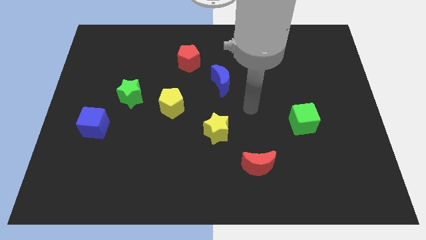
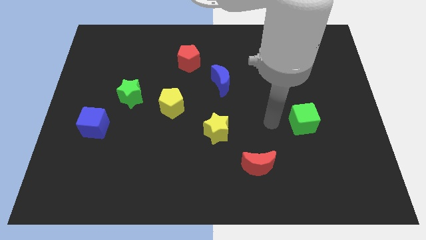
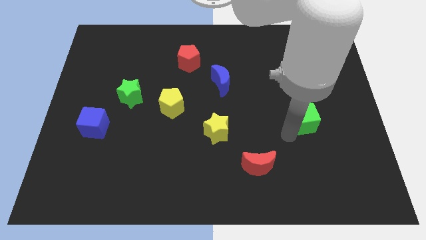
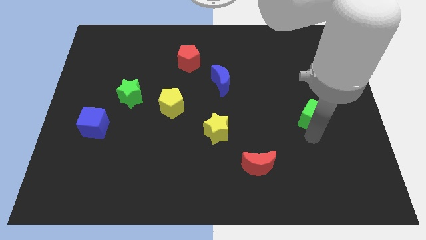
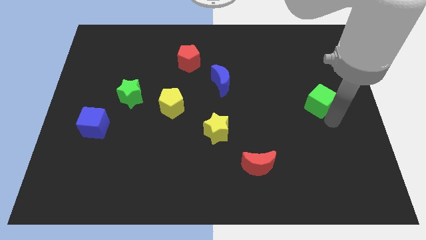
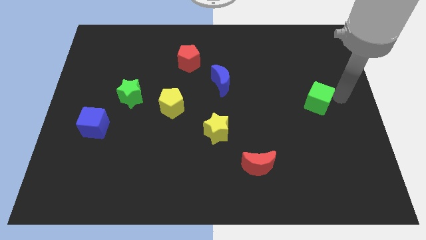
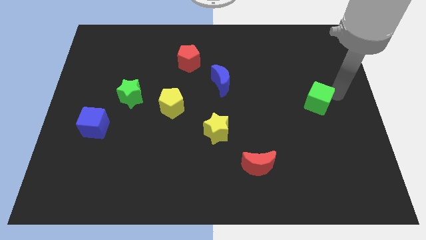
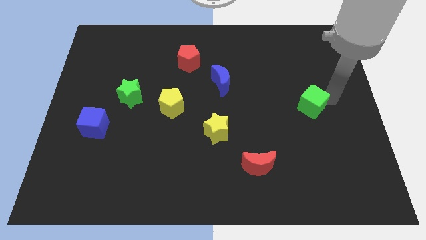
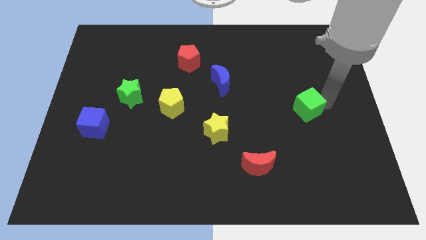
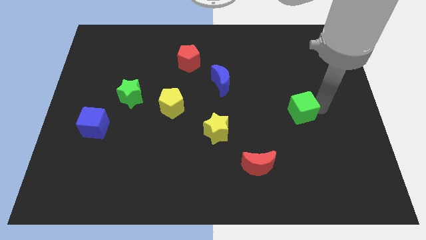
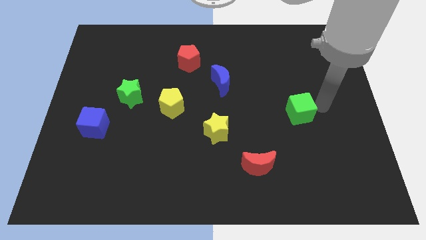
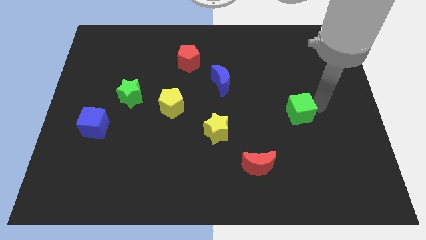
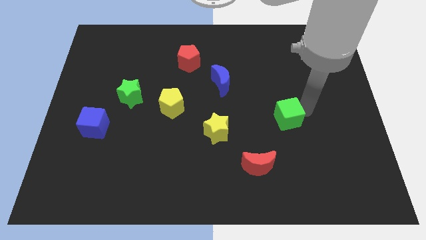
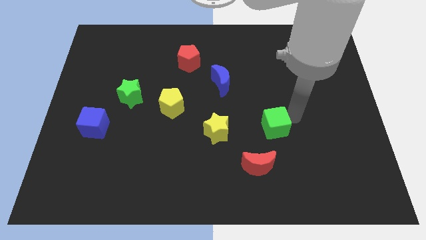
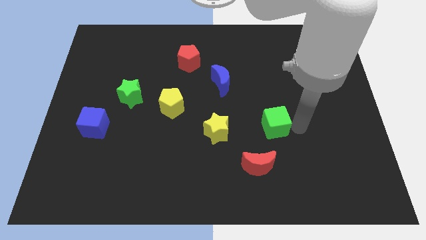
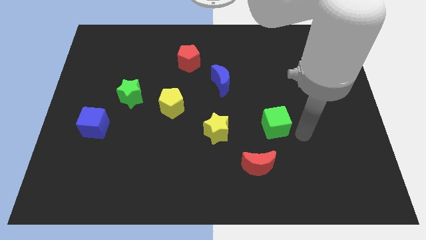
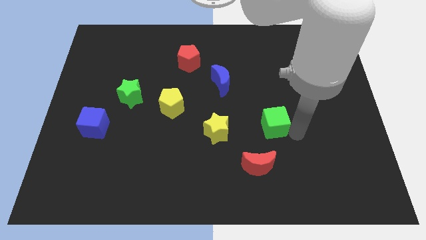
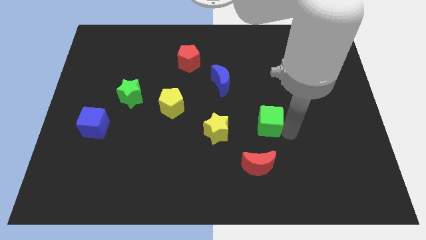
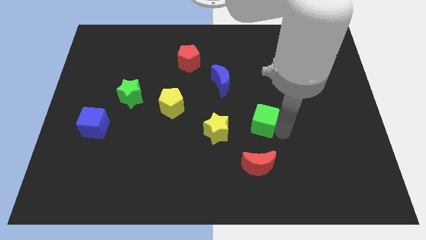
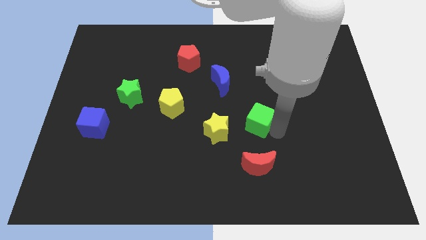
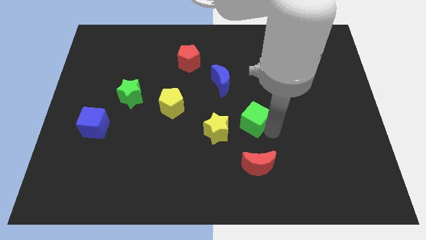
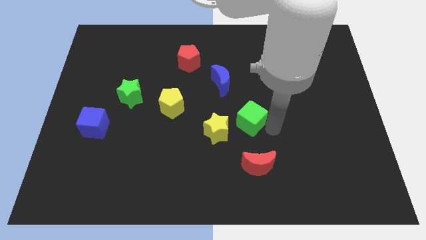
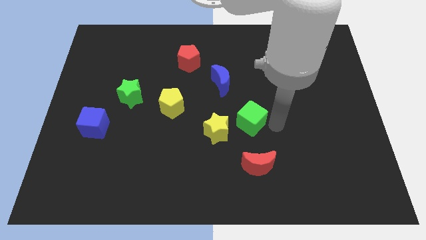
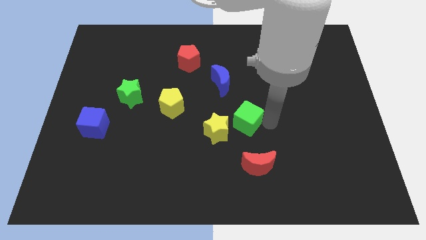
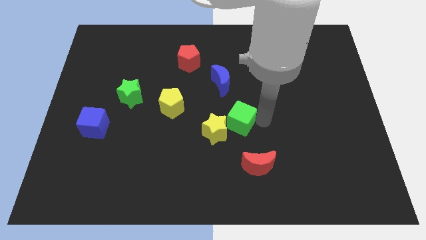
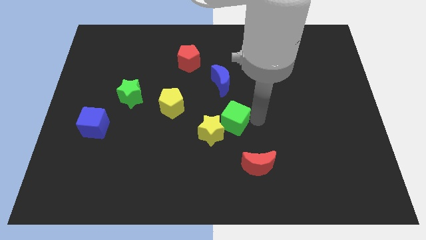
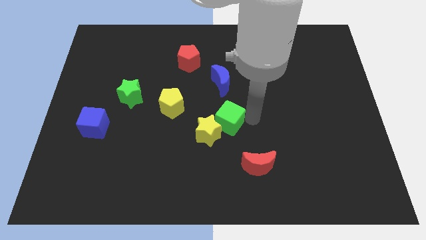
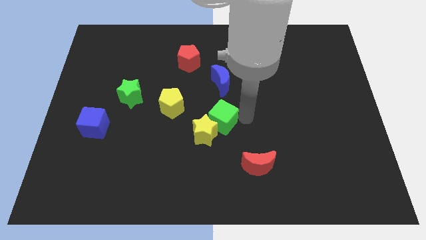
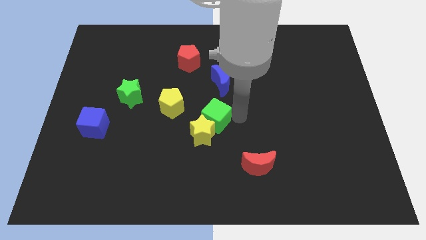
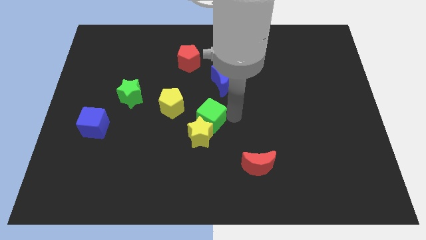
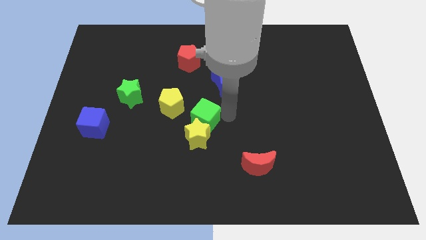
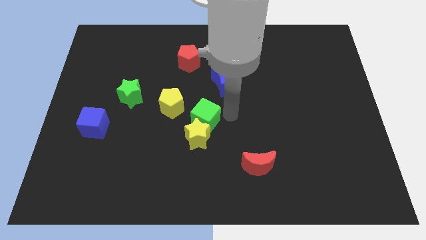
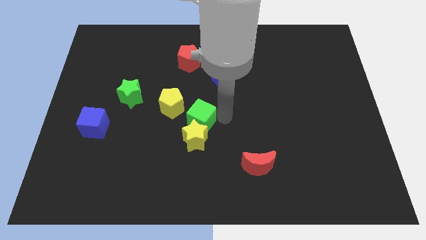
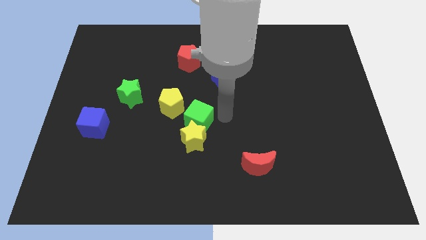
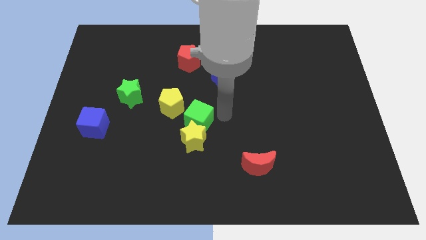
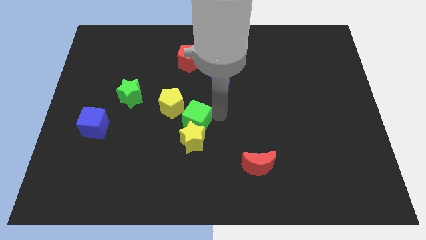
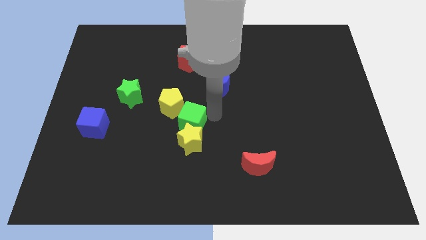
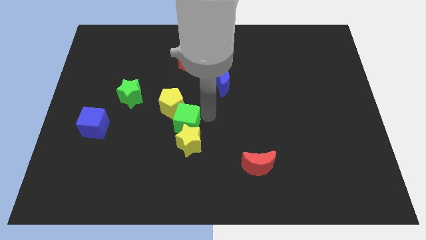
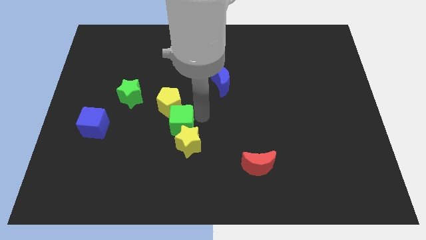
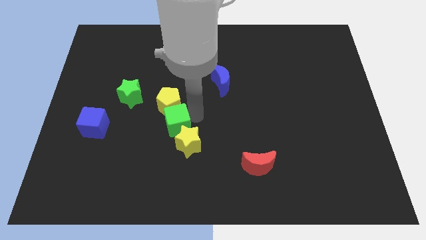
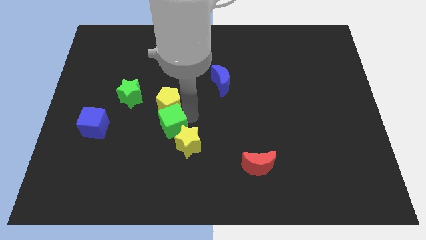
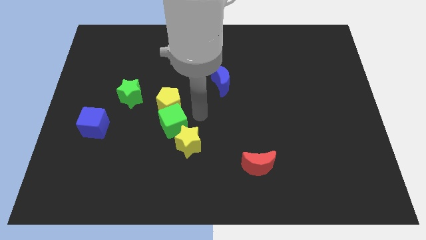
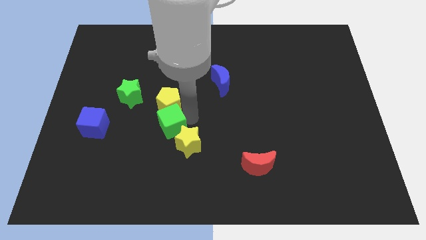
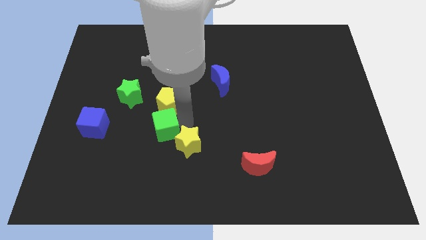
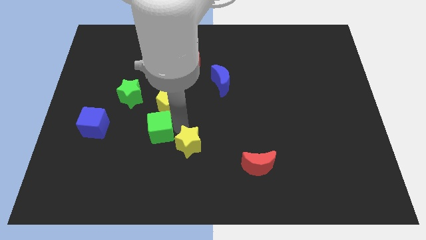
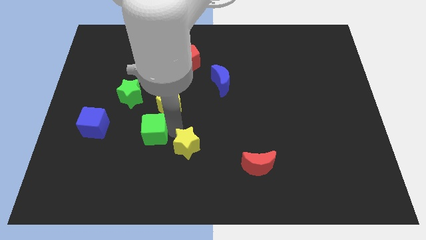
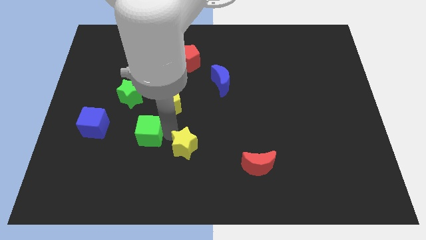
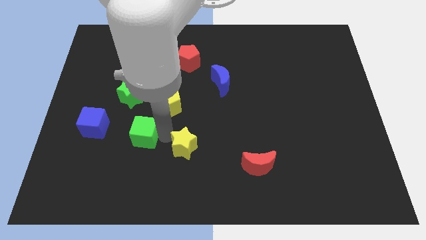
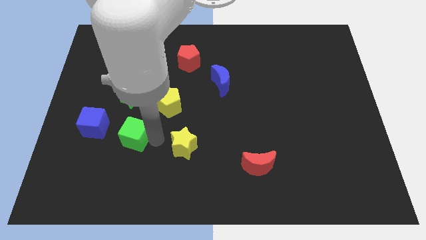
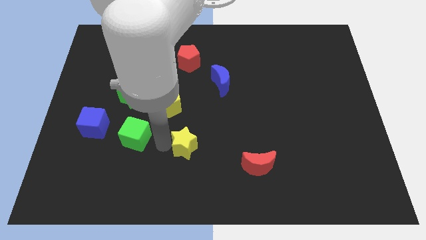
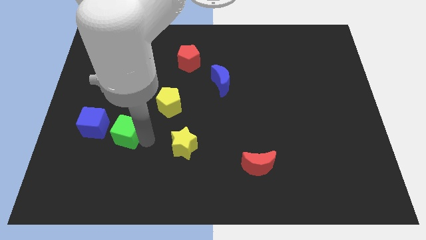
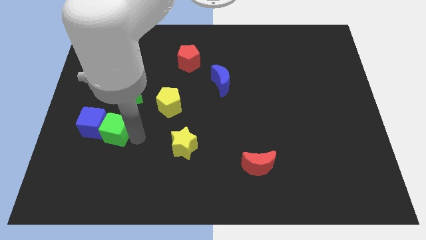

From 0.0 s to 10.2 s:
push the green cube close to the blue cube

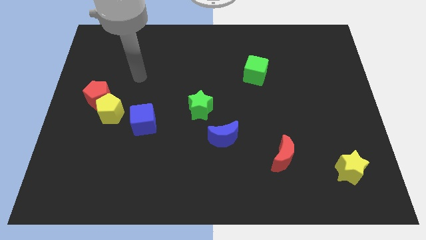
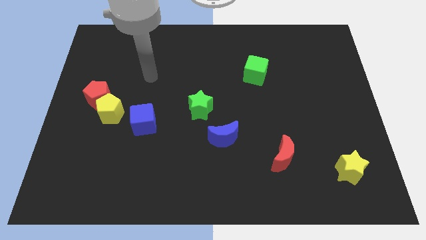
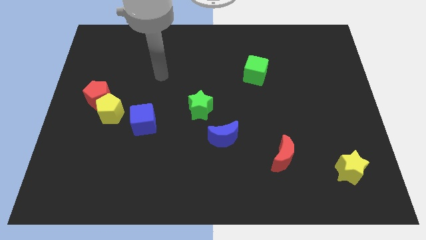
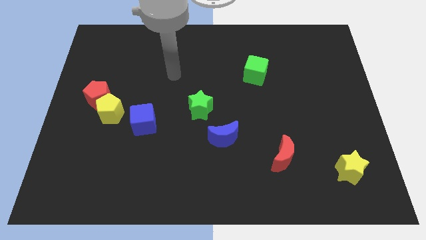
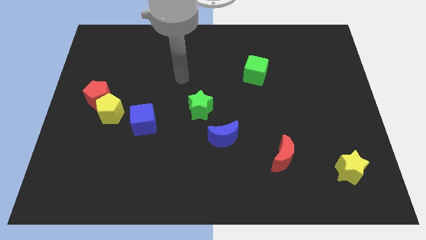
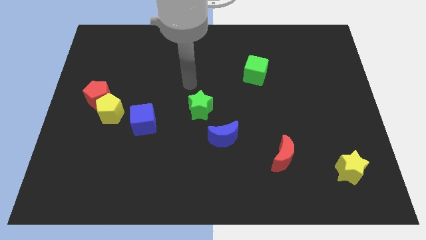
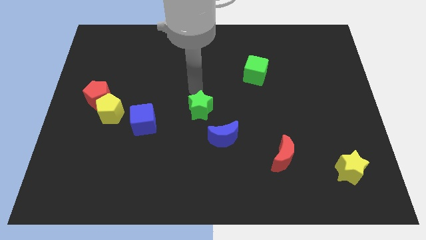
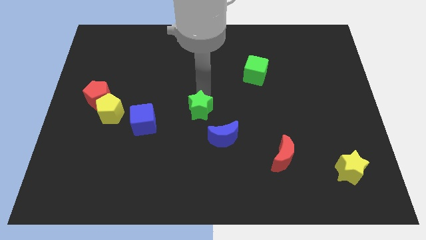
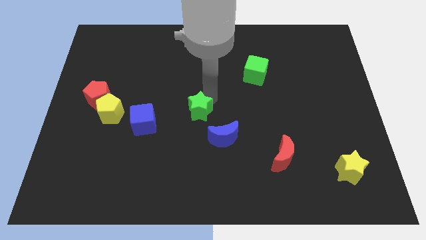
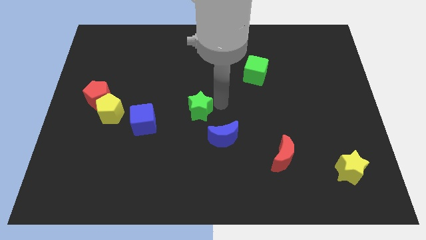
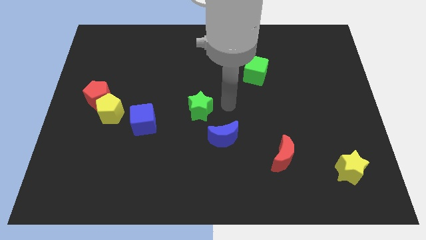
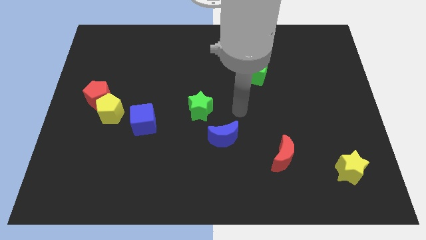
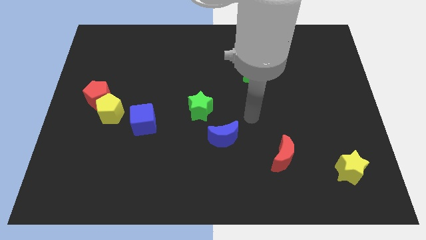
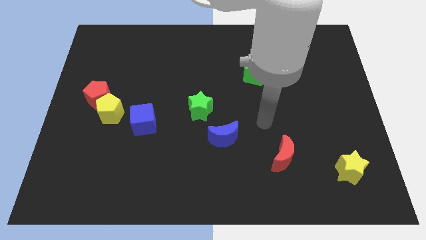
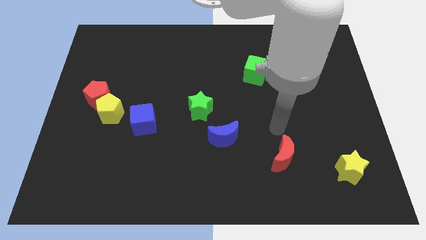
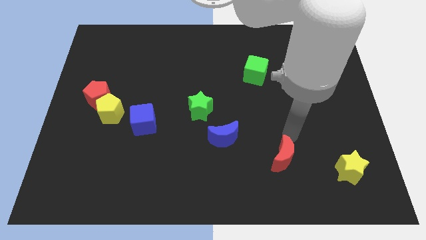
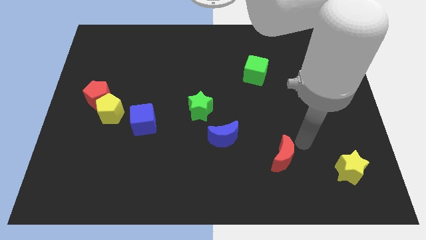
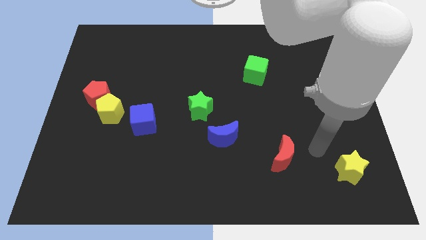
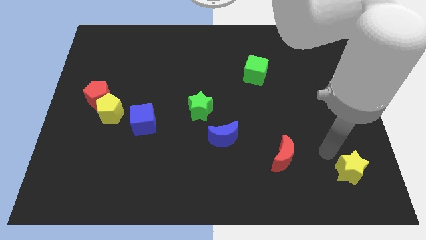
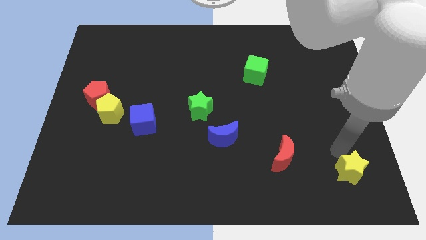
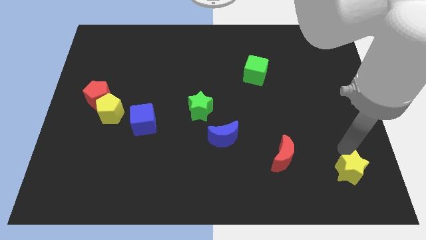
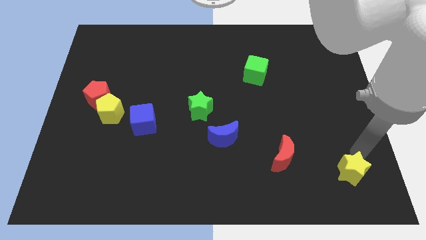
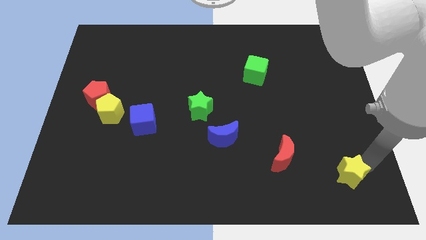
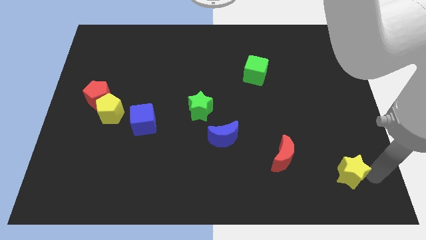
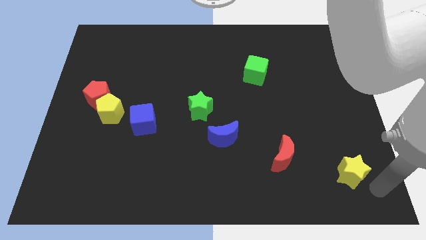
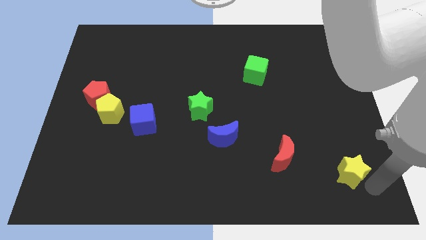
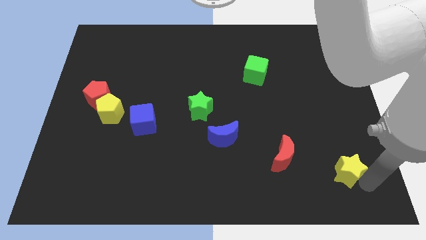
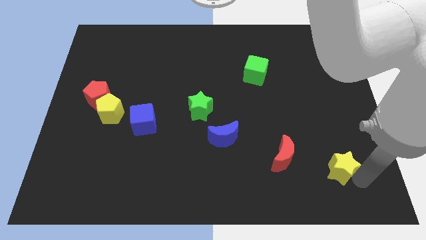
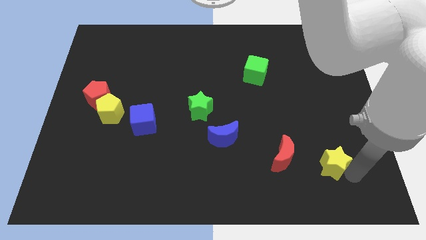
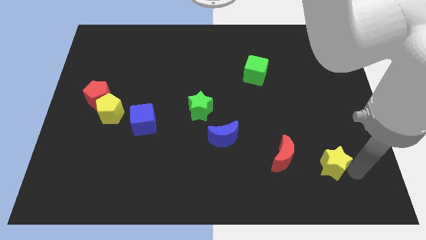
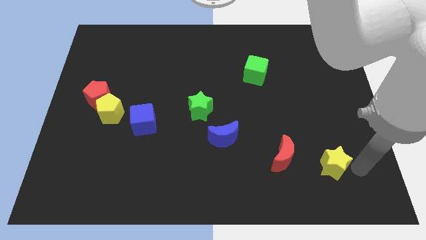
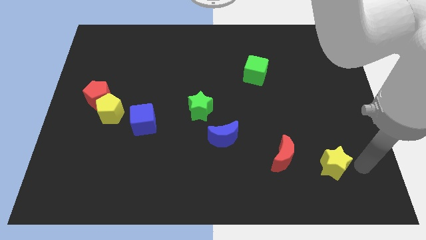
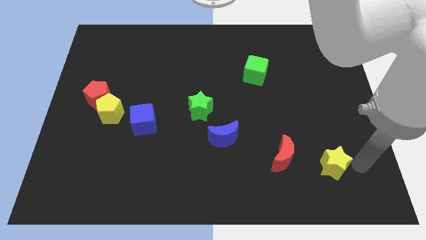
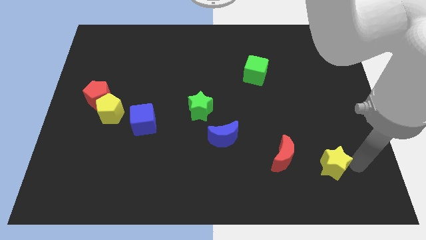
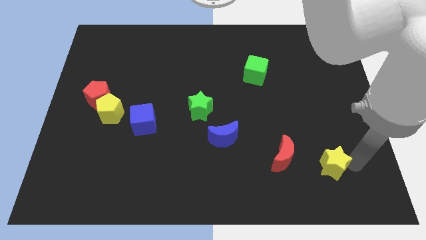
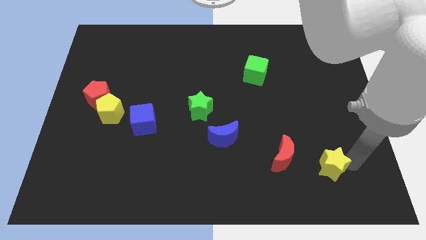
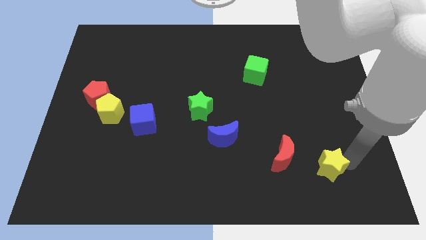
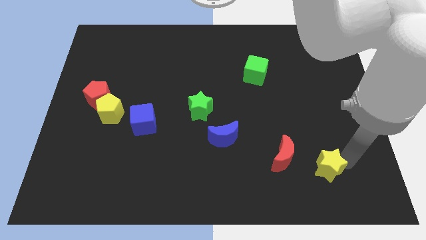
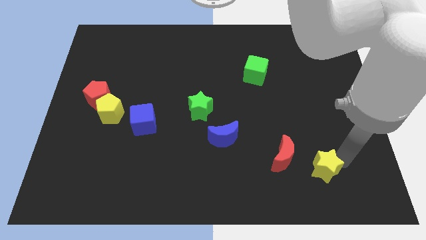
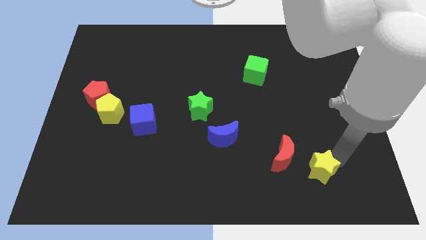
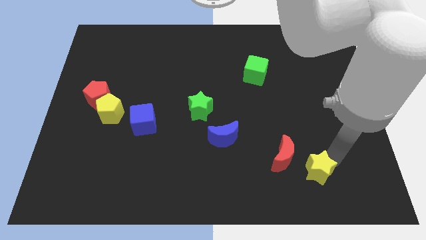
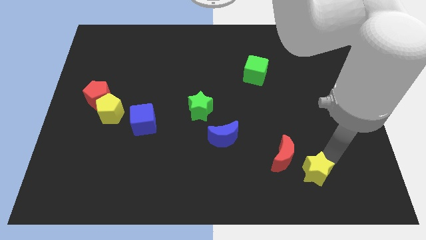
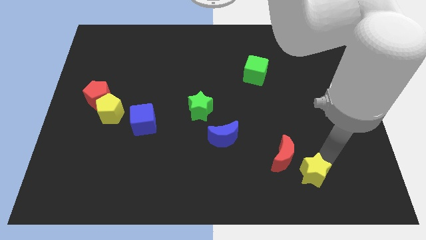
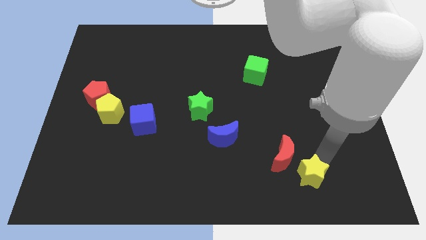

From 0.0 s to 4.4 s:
push the yellow star close to the red moon
